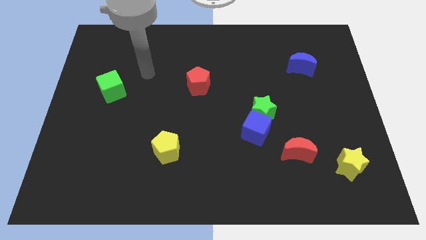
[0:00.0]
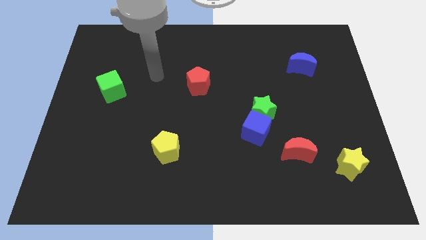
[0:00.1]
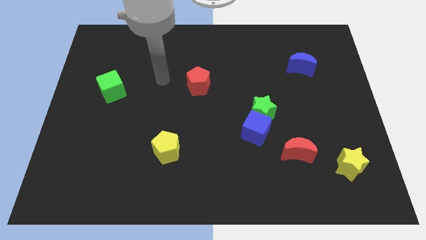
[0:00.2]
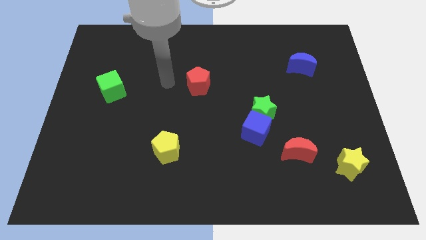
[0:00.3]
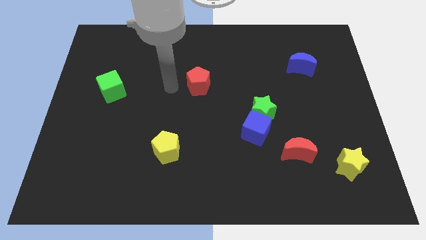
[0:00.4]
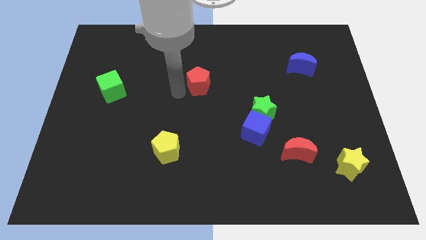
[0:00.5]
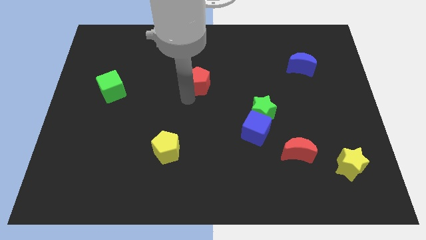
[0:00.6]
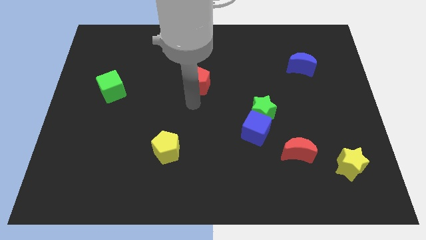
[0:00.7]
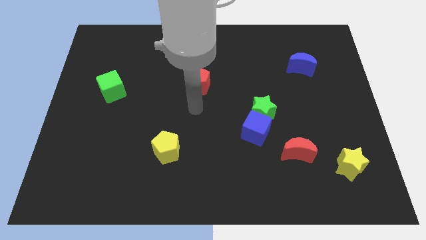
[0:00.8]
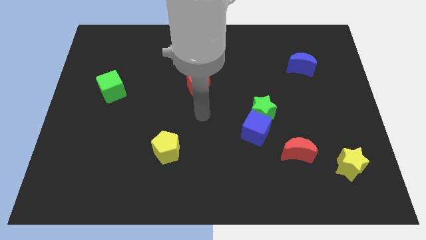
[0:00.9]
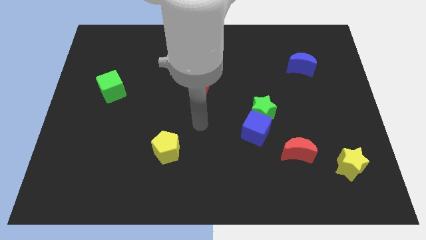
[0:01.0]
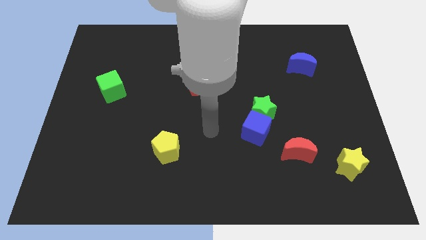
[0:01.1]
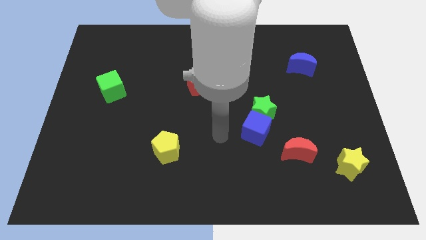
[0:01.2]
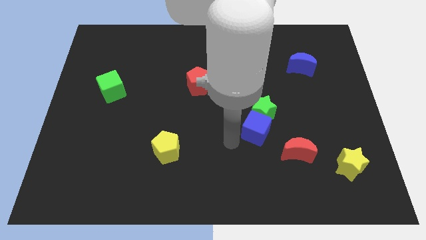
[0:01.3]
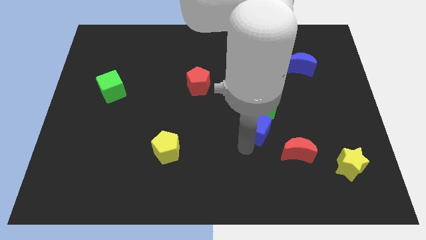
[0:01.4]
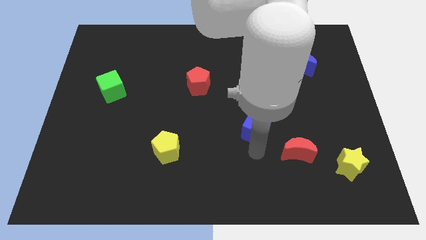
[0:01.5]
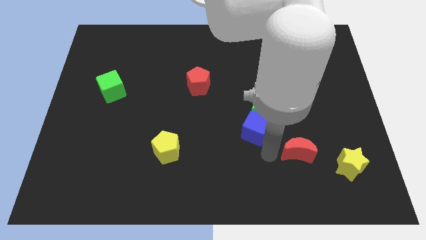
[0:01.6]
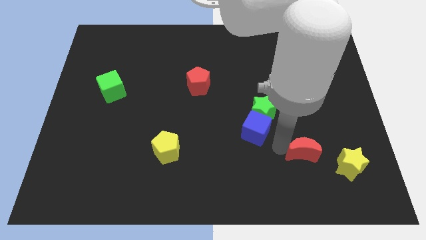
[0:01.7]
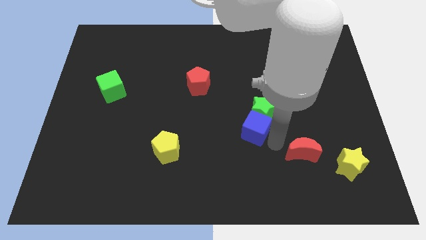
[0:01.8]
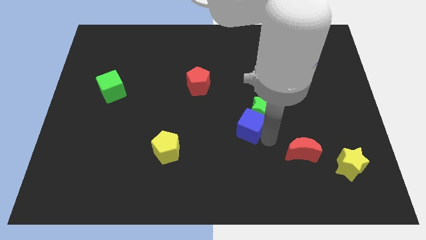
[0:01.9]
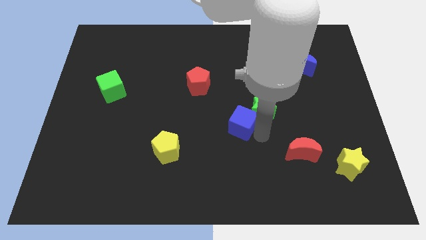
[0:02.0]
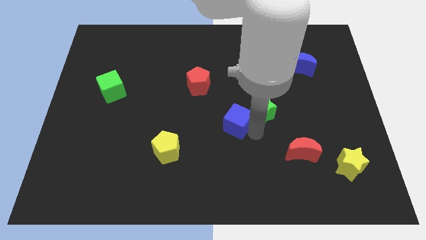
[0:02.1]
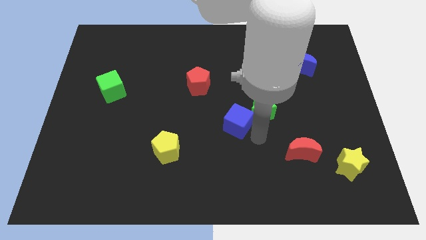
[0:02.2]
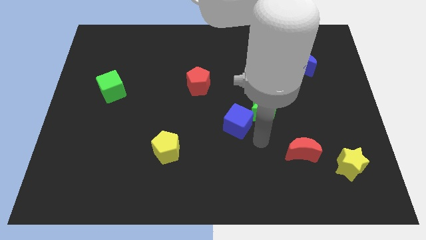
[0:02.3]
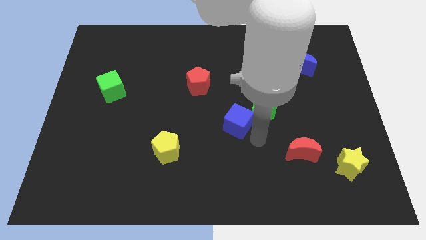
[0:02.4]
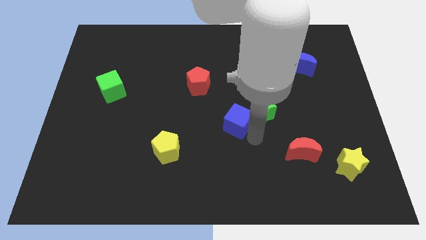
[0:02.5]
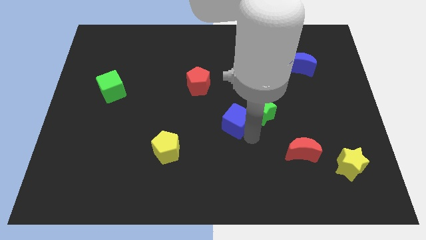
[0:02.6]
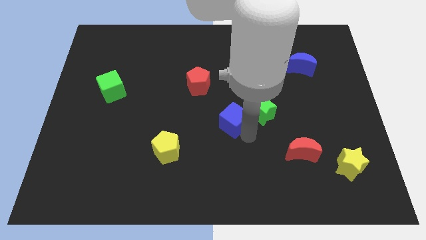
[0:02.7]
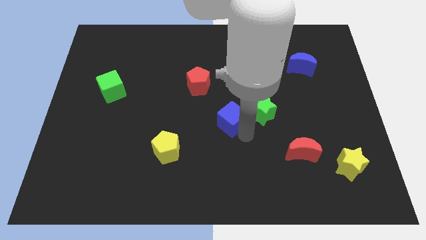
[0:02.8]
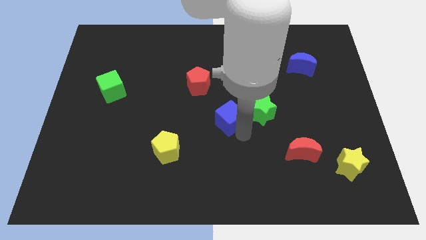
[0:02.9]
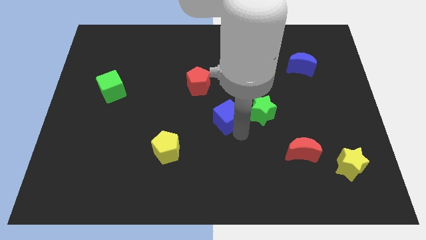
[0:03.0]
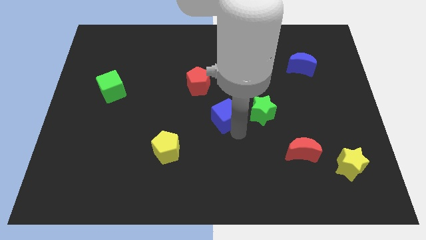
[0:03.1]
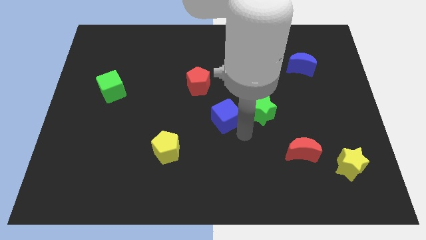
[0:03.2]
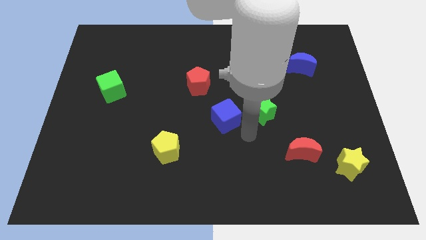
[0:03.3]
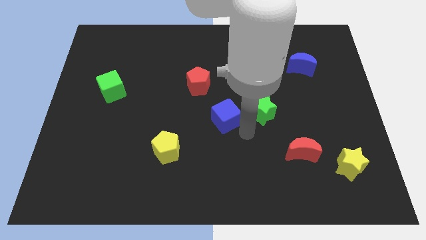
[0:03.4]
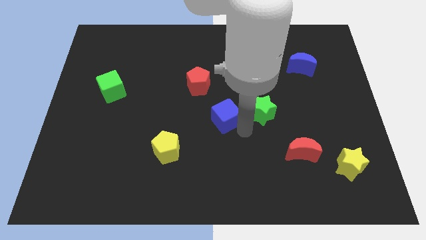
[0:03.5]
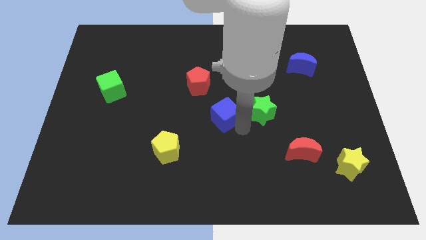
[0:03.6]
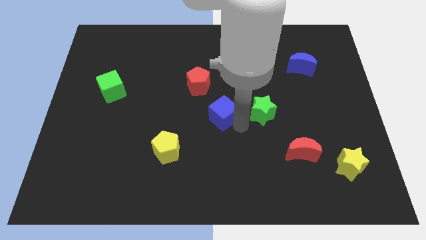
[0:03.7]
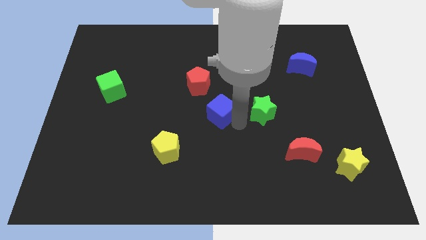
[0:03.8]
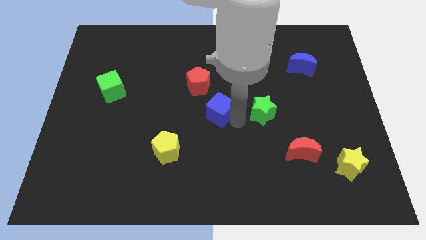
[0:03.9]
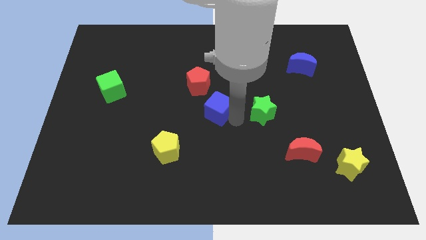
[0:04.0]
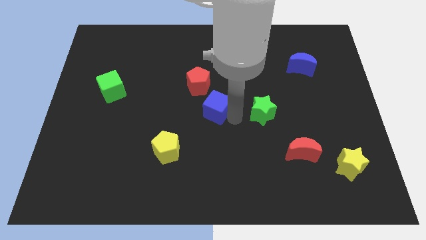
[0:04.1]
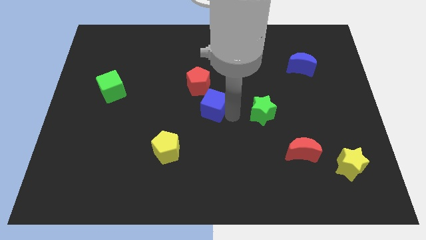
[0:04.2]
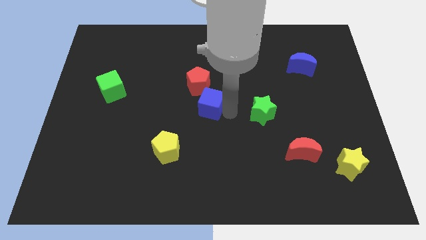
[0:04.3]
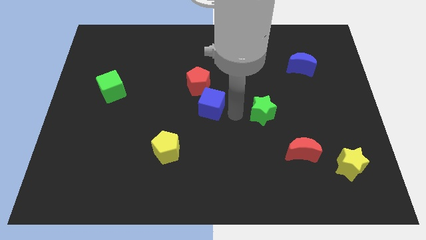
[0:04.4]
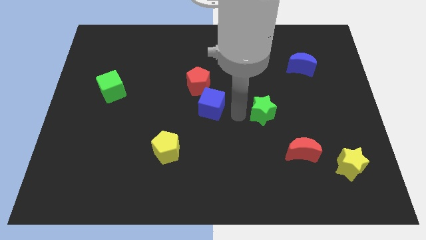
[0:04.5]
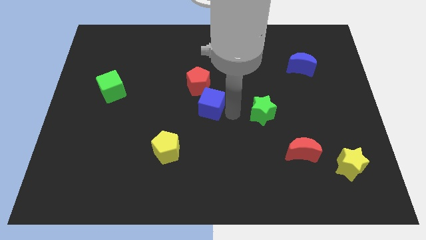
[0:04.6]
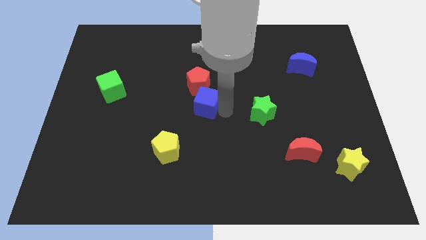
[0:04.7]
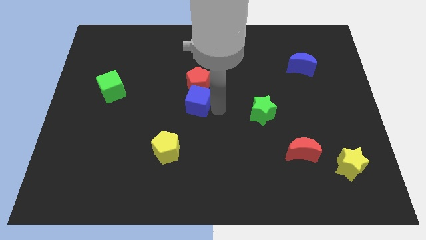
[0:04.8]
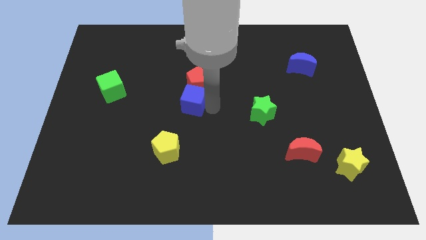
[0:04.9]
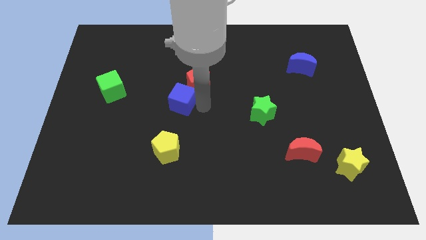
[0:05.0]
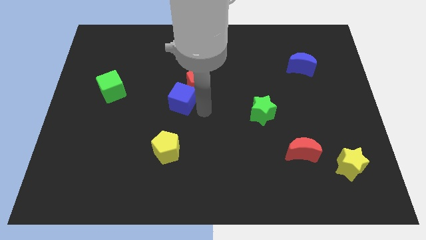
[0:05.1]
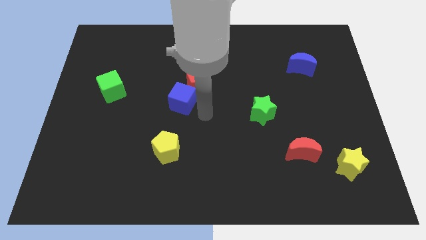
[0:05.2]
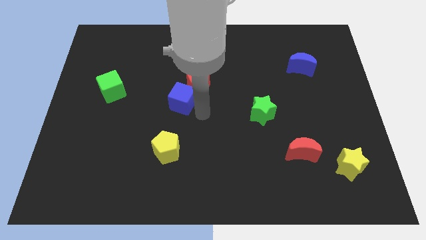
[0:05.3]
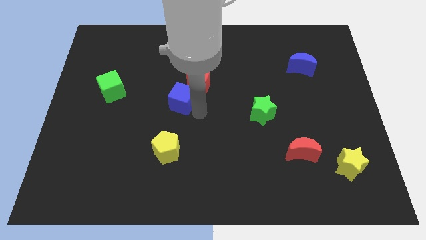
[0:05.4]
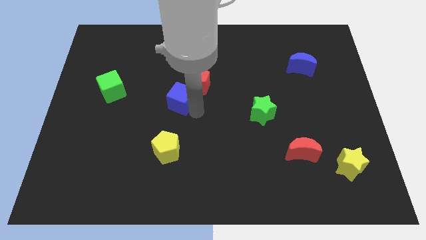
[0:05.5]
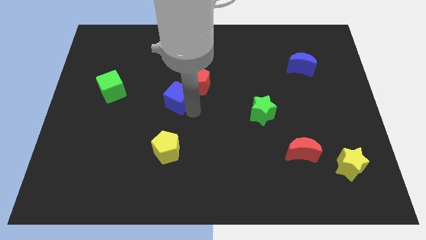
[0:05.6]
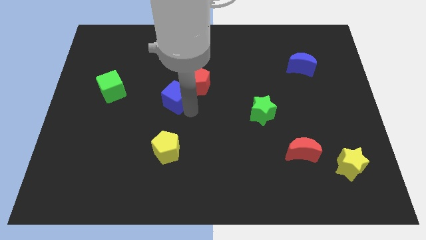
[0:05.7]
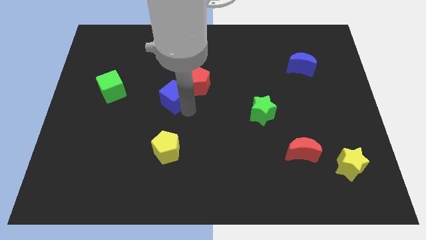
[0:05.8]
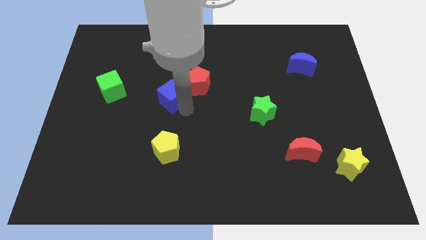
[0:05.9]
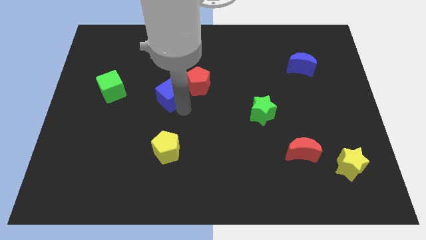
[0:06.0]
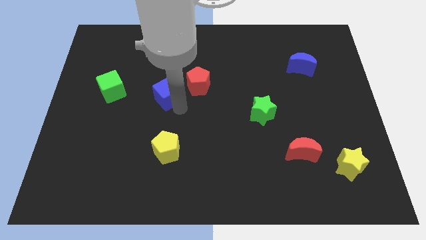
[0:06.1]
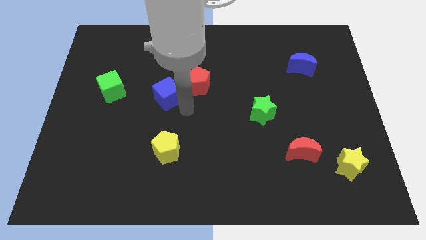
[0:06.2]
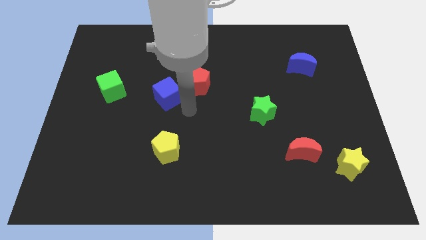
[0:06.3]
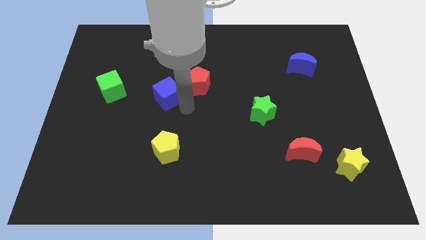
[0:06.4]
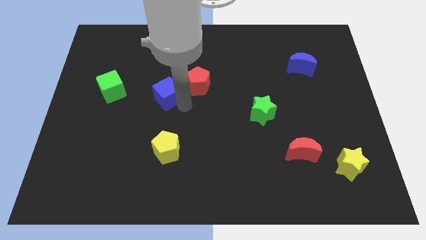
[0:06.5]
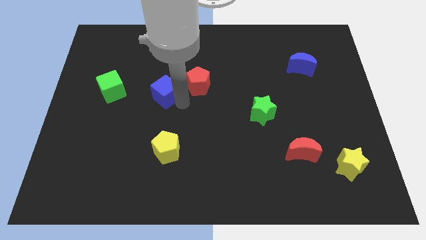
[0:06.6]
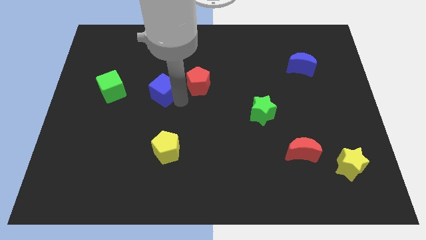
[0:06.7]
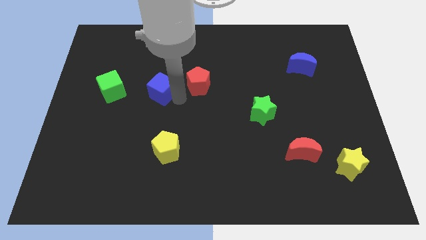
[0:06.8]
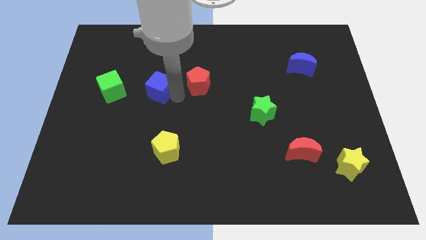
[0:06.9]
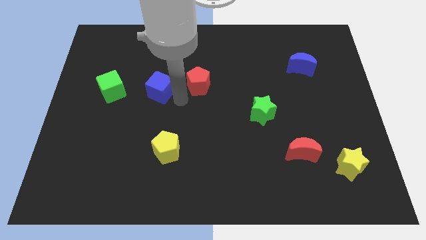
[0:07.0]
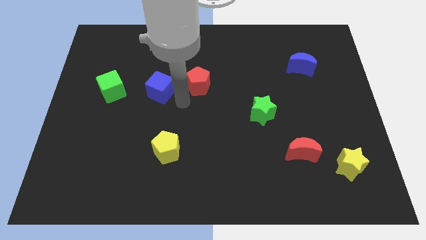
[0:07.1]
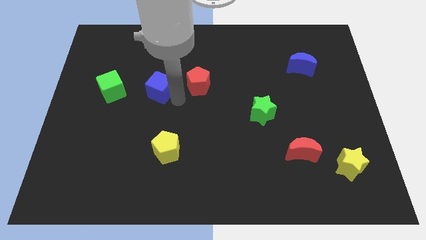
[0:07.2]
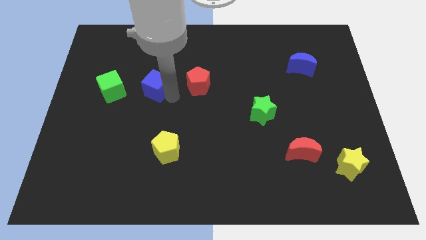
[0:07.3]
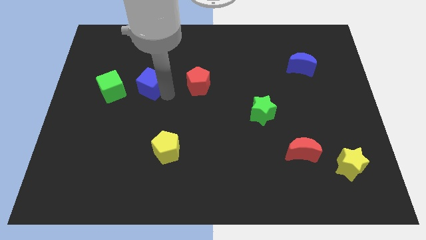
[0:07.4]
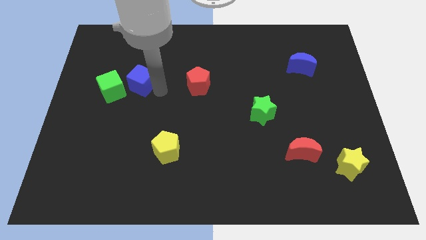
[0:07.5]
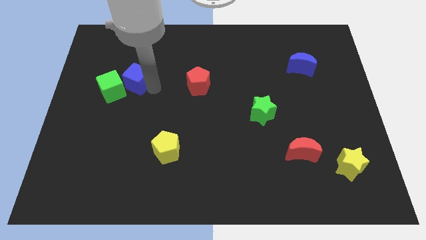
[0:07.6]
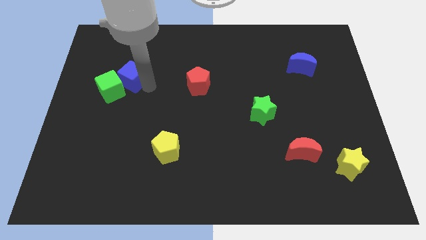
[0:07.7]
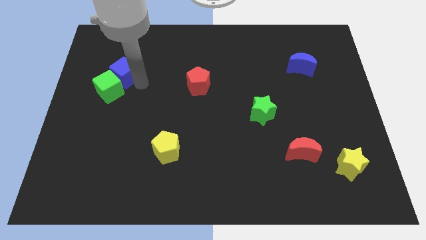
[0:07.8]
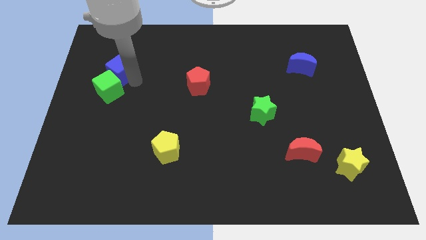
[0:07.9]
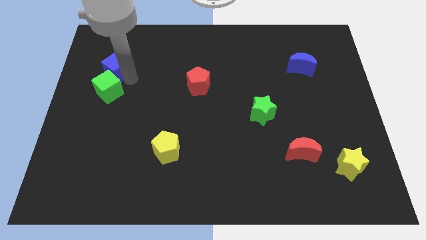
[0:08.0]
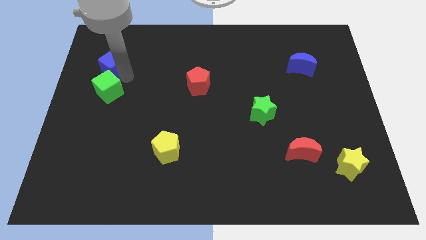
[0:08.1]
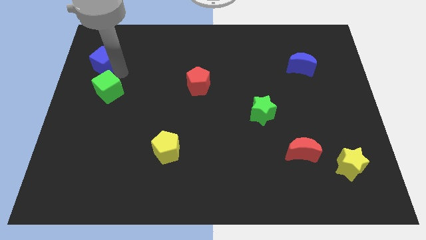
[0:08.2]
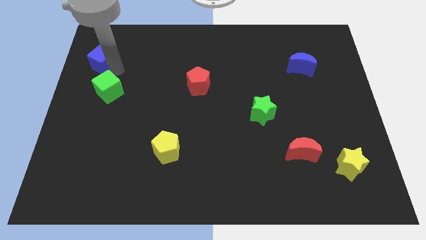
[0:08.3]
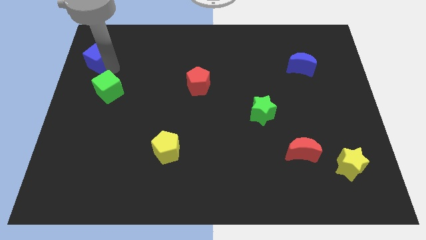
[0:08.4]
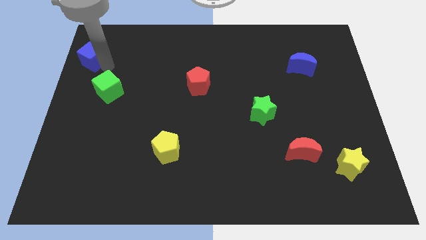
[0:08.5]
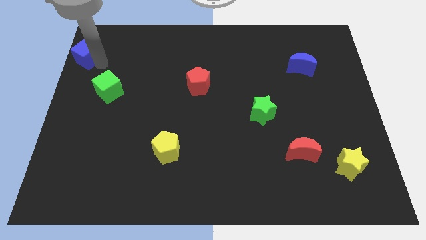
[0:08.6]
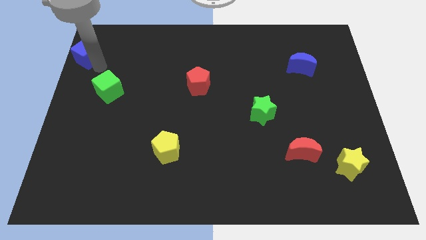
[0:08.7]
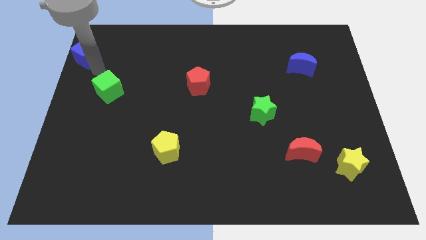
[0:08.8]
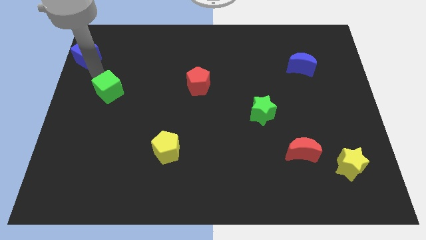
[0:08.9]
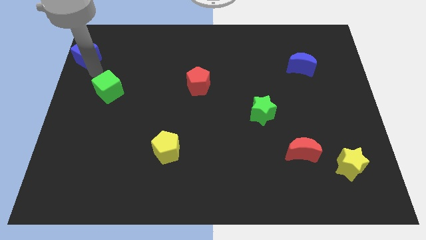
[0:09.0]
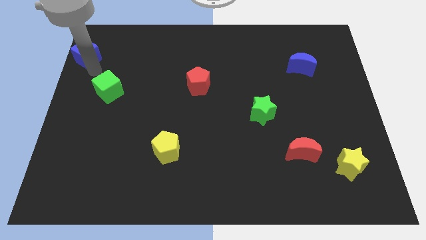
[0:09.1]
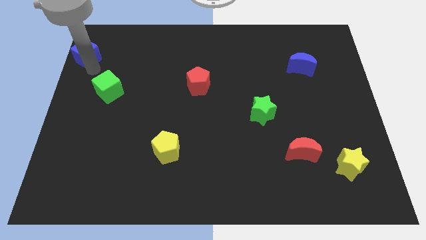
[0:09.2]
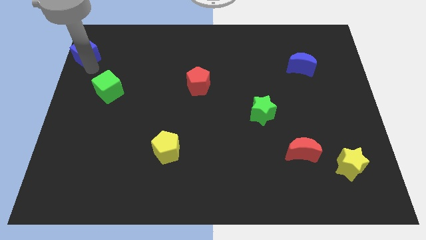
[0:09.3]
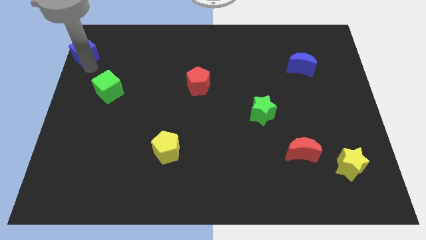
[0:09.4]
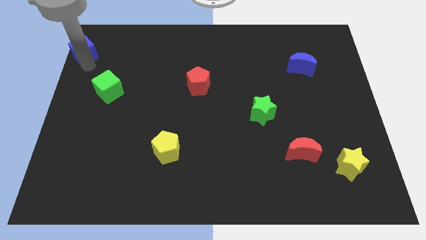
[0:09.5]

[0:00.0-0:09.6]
put the blue cube to the top left
